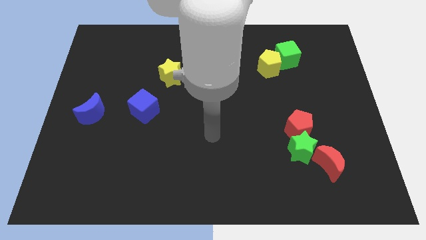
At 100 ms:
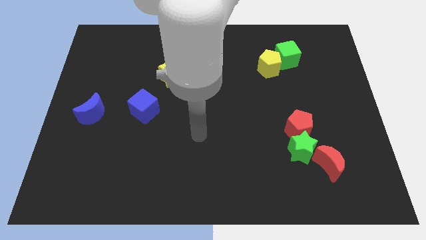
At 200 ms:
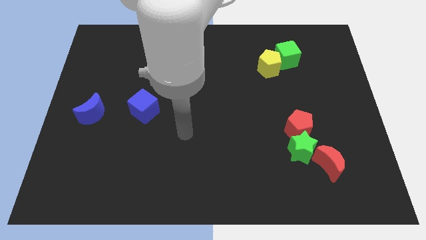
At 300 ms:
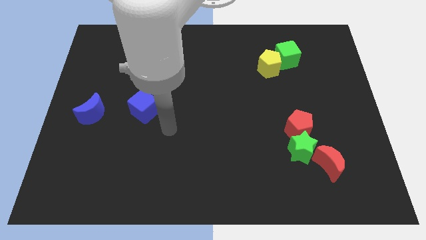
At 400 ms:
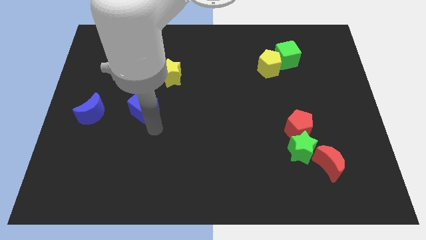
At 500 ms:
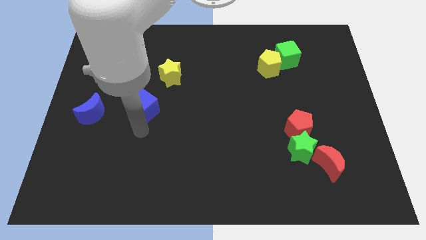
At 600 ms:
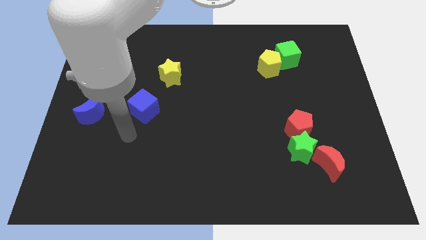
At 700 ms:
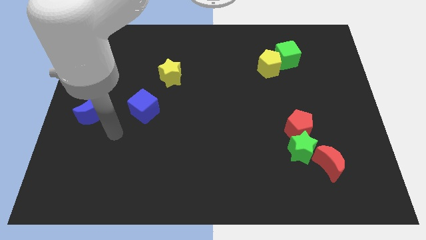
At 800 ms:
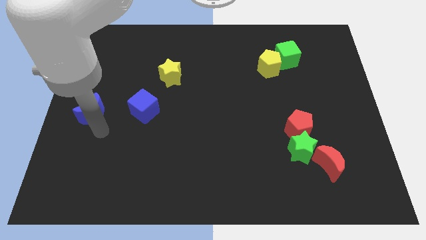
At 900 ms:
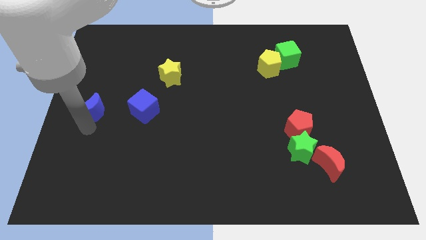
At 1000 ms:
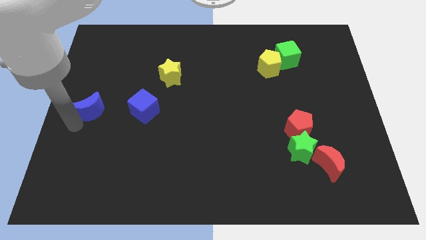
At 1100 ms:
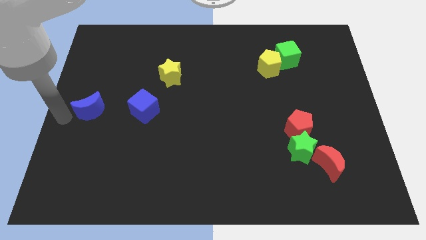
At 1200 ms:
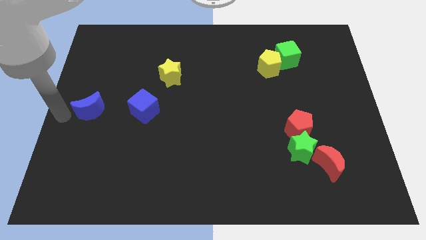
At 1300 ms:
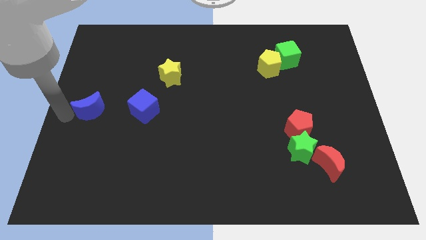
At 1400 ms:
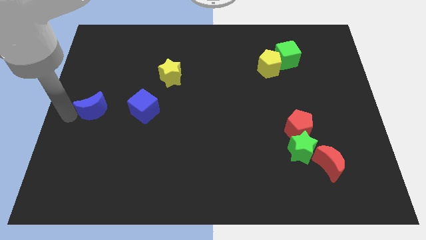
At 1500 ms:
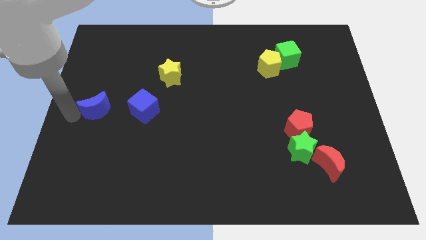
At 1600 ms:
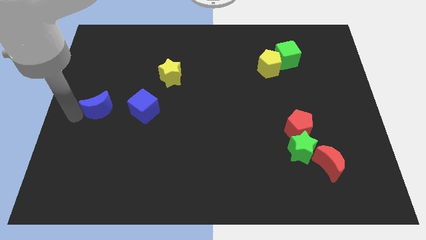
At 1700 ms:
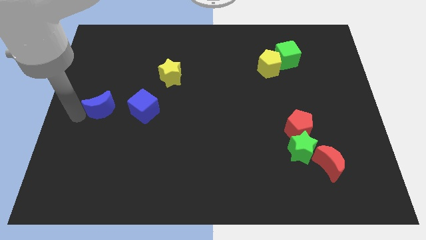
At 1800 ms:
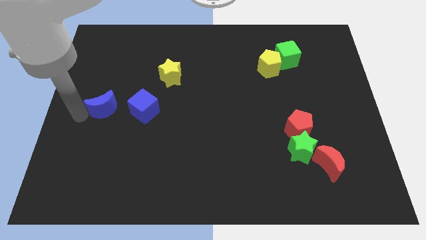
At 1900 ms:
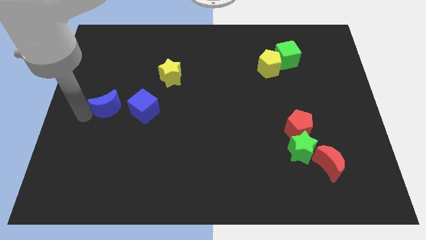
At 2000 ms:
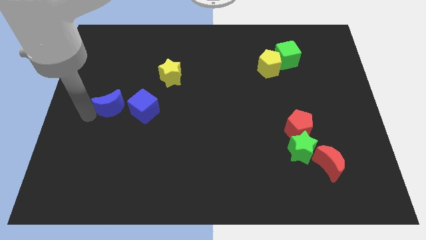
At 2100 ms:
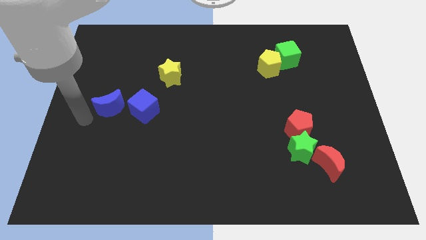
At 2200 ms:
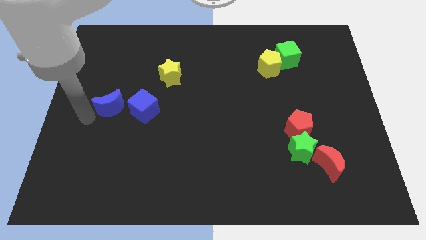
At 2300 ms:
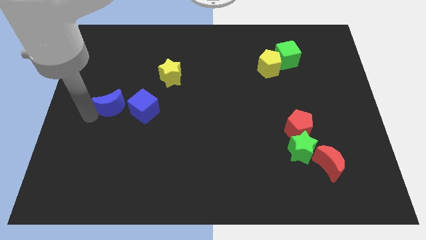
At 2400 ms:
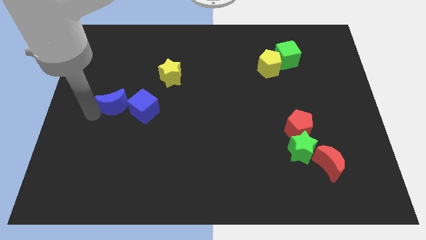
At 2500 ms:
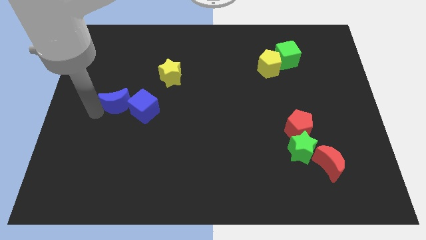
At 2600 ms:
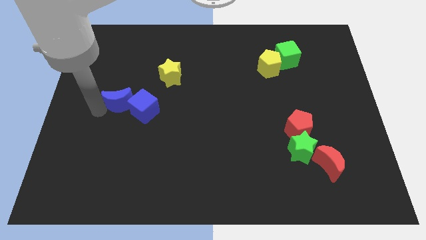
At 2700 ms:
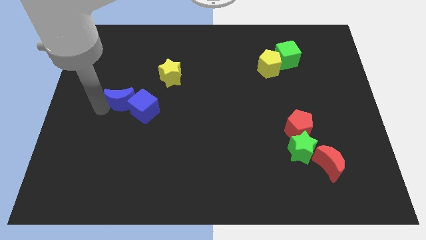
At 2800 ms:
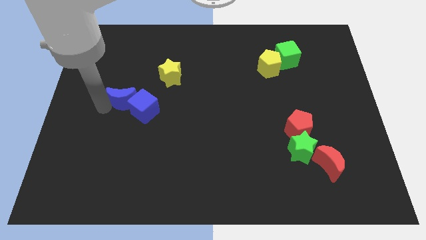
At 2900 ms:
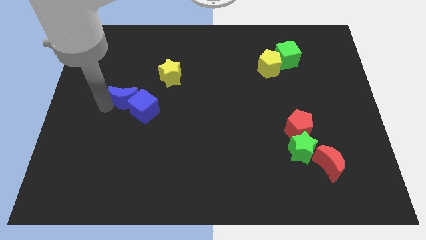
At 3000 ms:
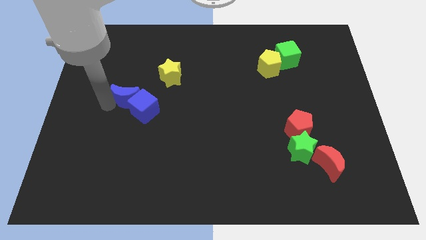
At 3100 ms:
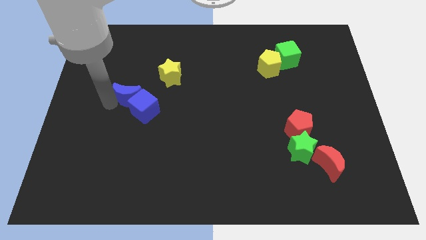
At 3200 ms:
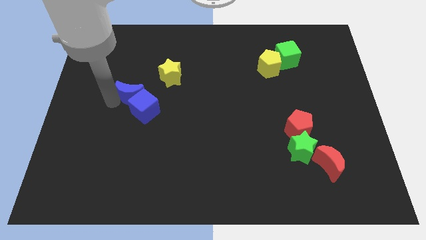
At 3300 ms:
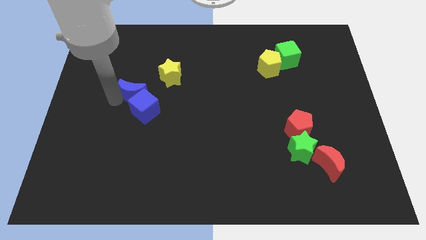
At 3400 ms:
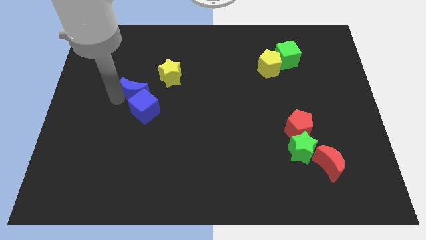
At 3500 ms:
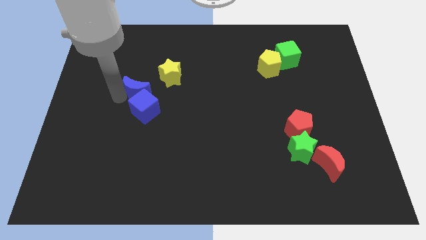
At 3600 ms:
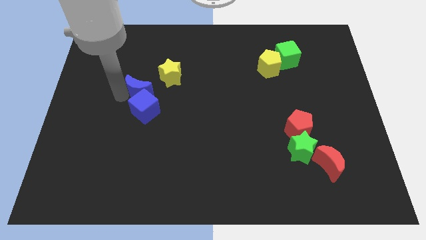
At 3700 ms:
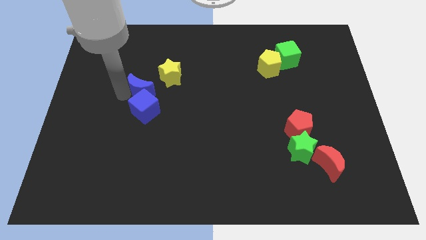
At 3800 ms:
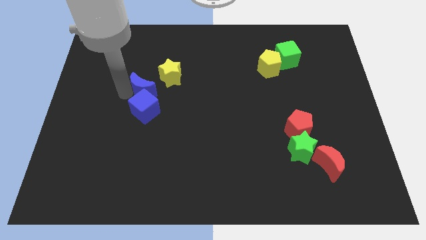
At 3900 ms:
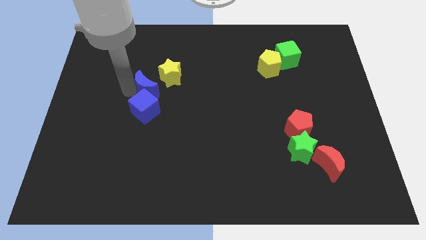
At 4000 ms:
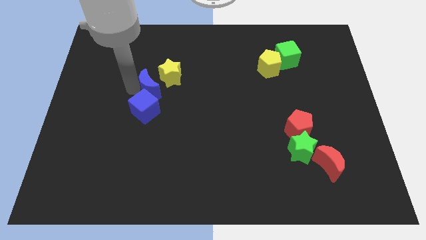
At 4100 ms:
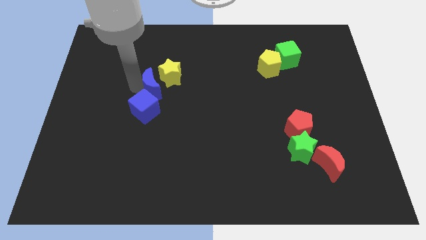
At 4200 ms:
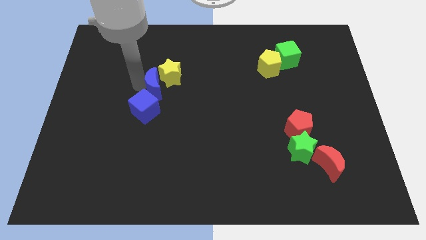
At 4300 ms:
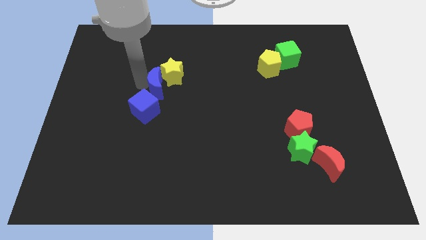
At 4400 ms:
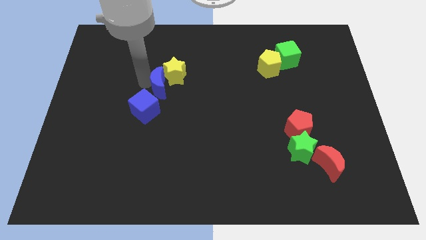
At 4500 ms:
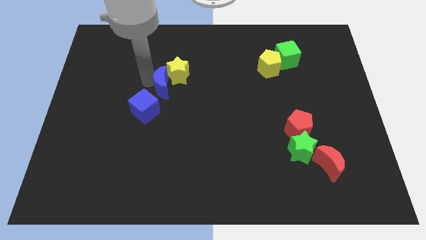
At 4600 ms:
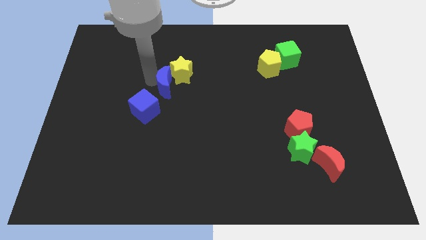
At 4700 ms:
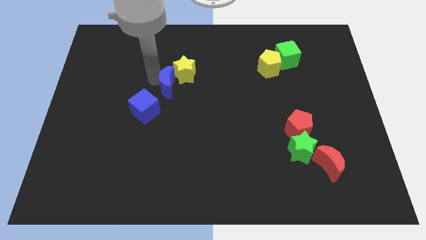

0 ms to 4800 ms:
move the blue moon to the center of the board

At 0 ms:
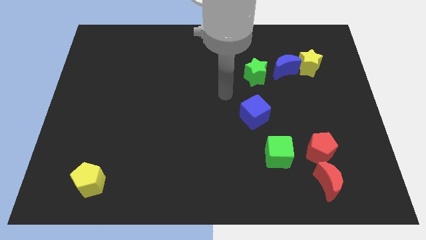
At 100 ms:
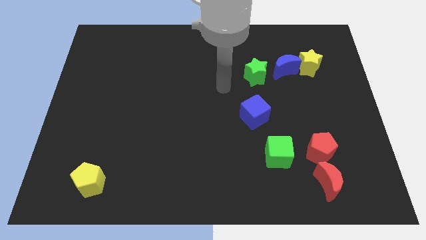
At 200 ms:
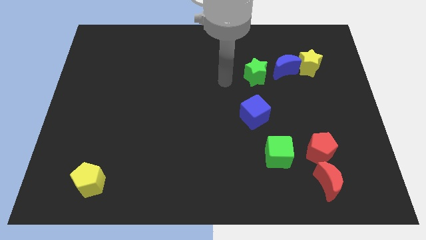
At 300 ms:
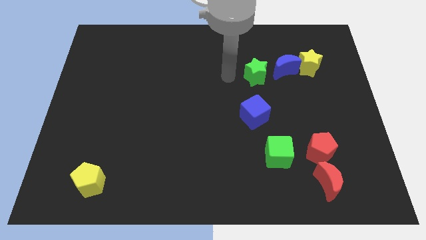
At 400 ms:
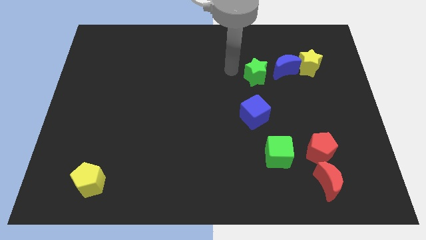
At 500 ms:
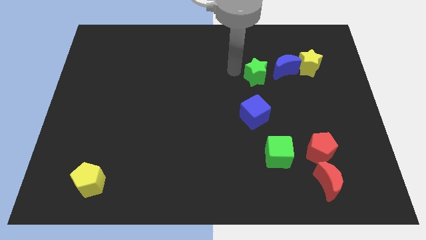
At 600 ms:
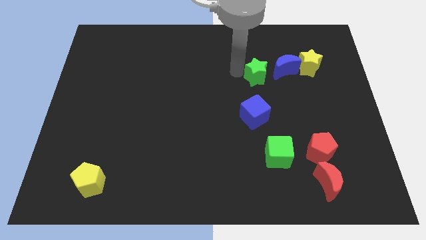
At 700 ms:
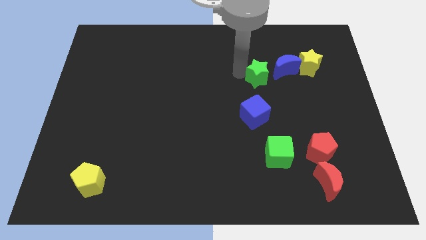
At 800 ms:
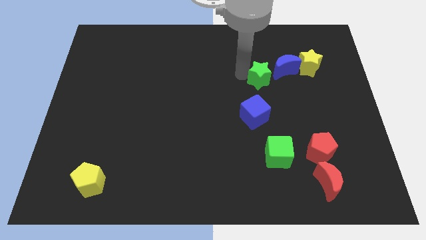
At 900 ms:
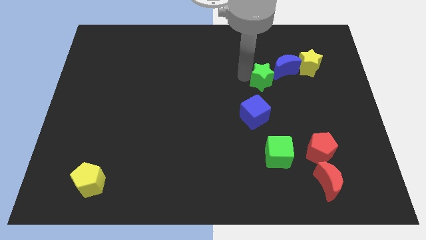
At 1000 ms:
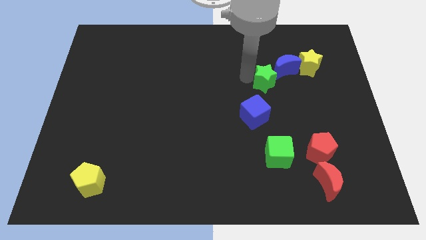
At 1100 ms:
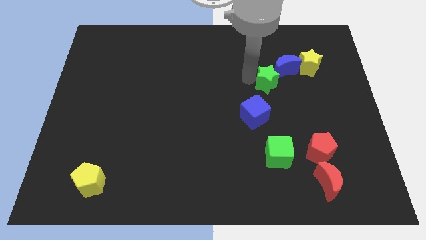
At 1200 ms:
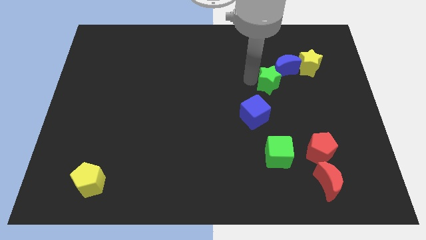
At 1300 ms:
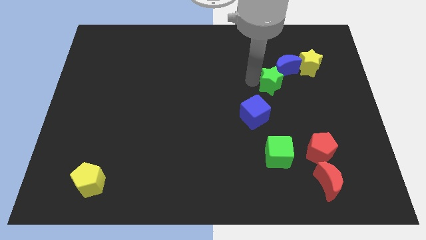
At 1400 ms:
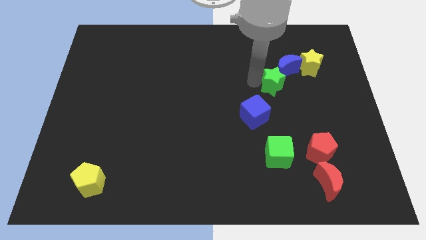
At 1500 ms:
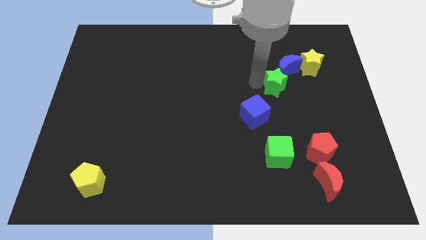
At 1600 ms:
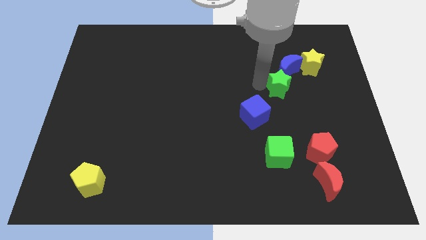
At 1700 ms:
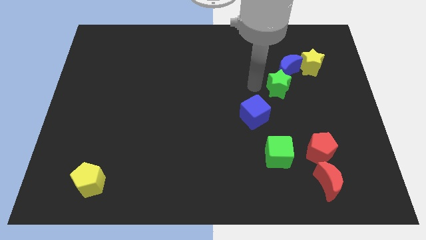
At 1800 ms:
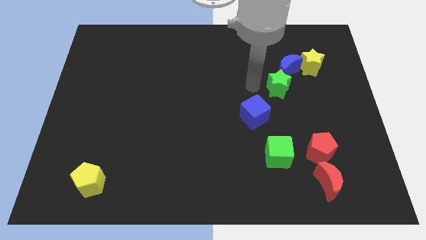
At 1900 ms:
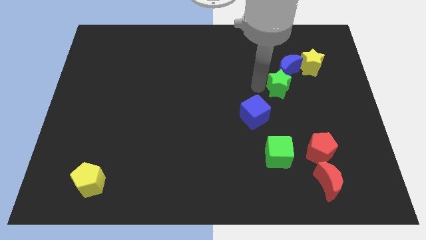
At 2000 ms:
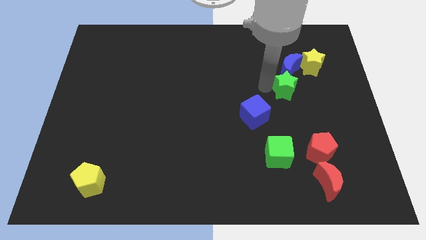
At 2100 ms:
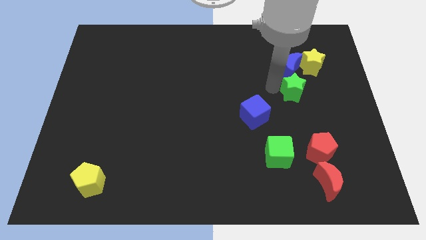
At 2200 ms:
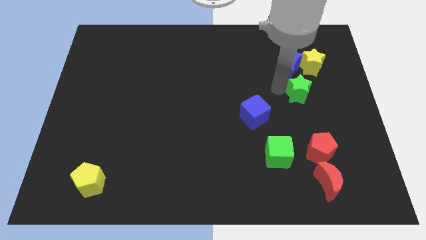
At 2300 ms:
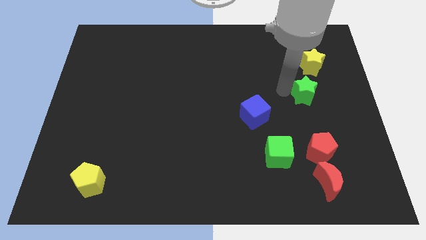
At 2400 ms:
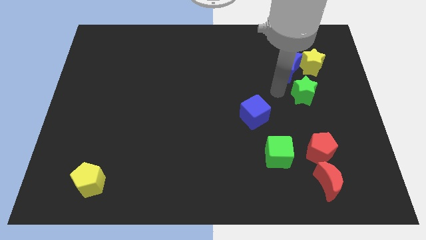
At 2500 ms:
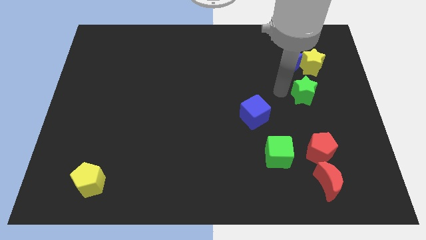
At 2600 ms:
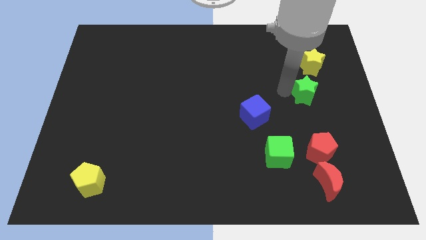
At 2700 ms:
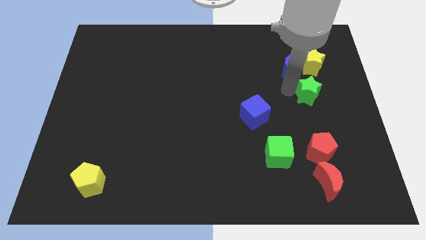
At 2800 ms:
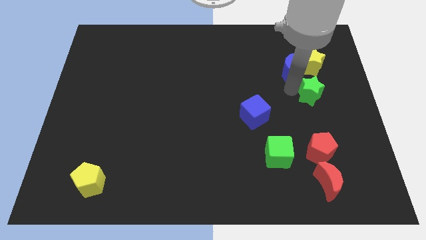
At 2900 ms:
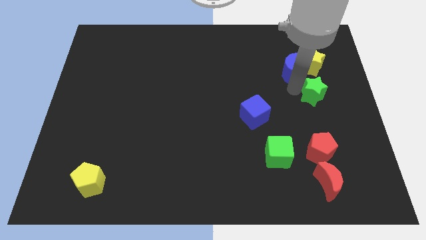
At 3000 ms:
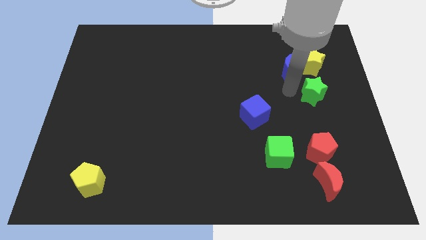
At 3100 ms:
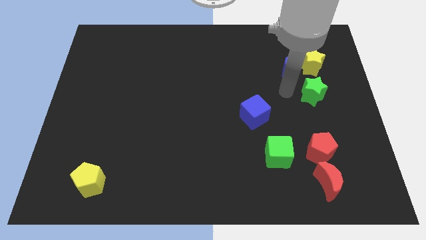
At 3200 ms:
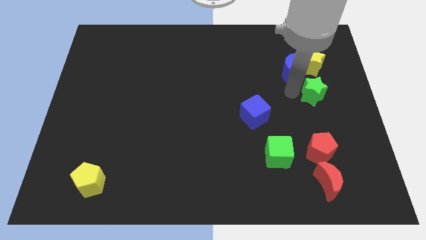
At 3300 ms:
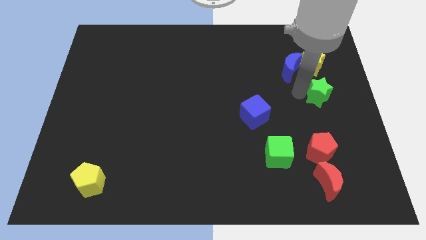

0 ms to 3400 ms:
put the green star to the right side of the board
